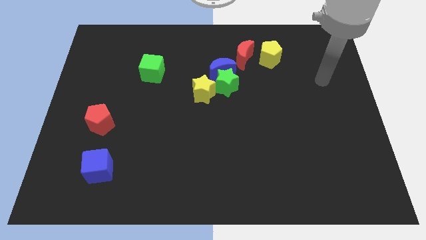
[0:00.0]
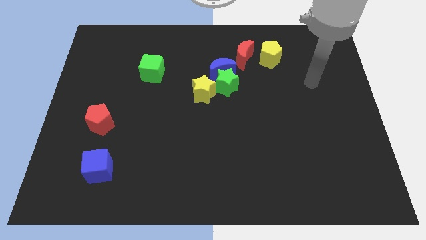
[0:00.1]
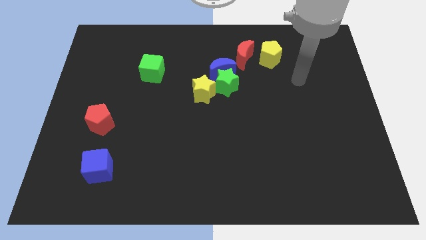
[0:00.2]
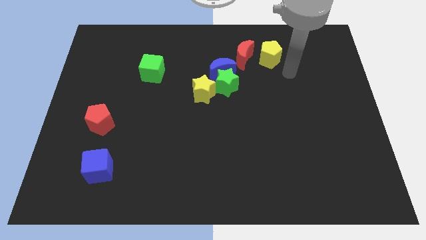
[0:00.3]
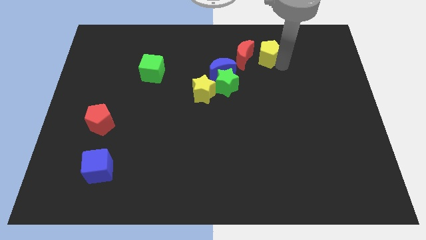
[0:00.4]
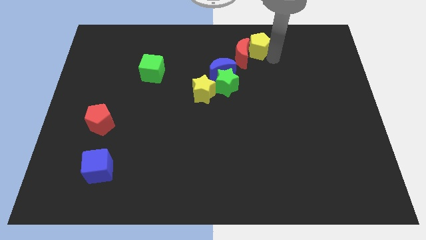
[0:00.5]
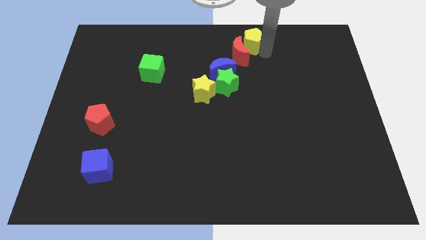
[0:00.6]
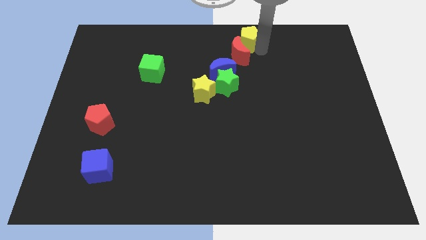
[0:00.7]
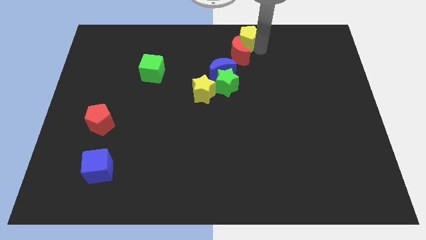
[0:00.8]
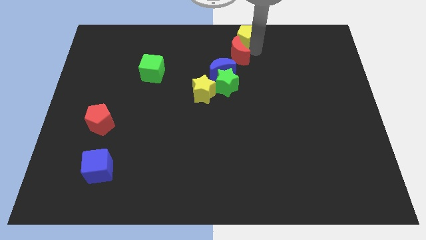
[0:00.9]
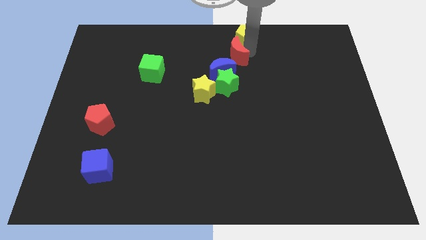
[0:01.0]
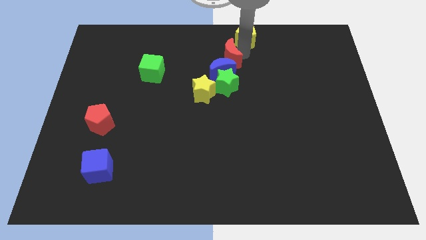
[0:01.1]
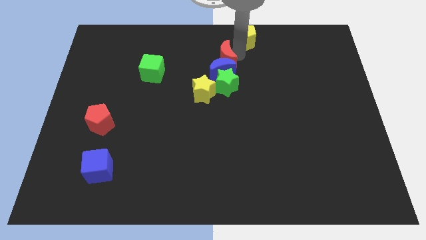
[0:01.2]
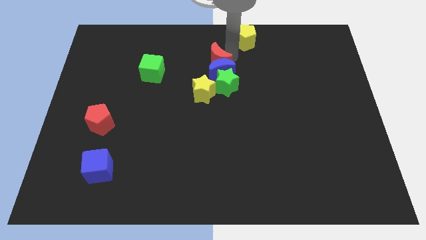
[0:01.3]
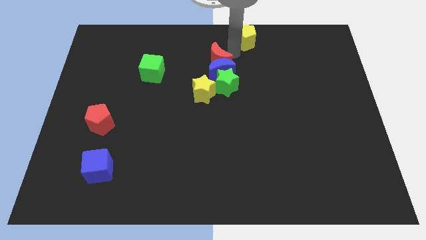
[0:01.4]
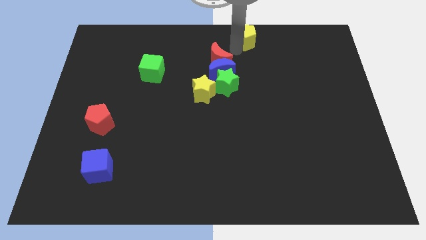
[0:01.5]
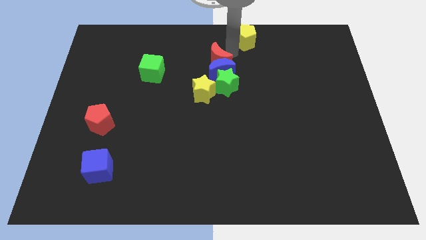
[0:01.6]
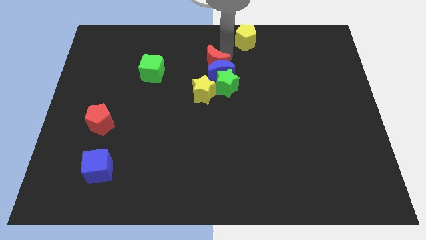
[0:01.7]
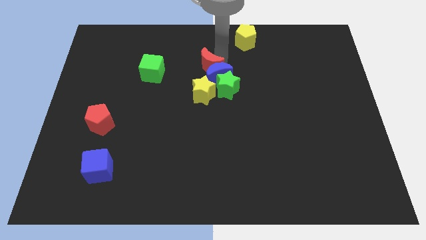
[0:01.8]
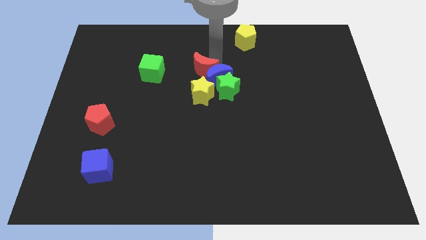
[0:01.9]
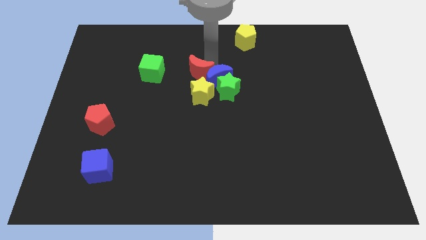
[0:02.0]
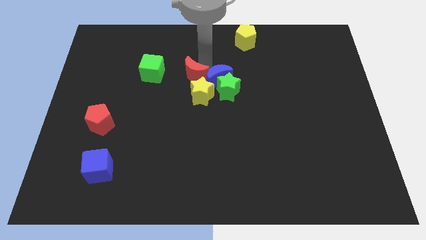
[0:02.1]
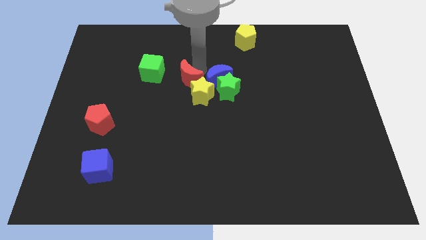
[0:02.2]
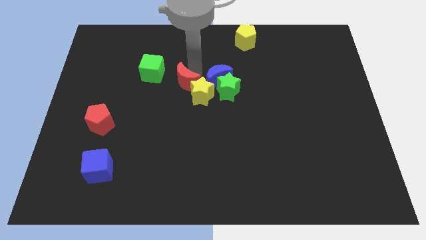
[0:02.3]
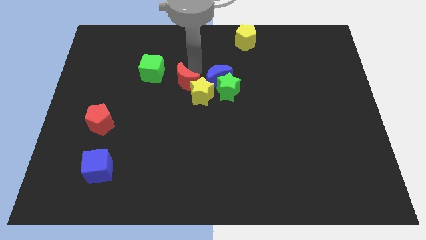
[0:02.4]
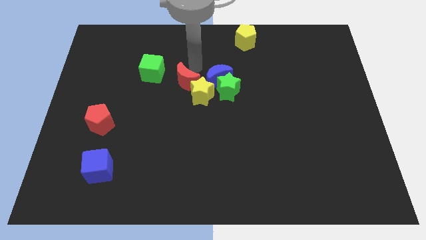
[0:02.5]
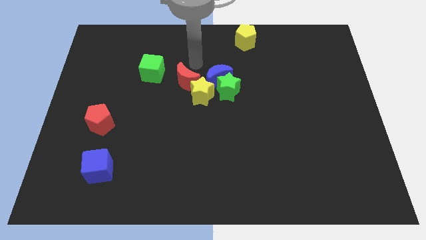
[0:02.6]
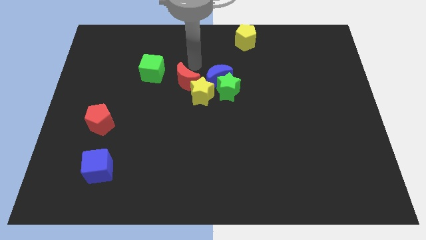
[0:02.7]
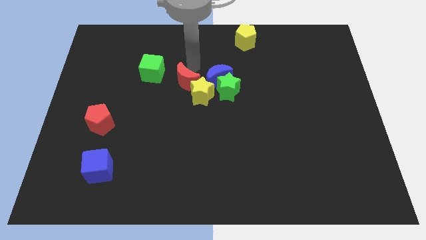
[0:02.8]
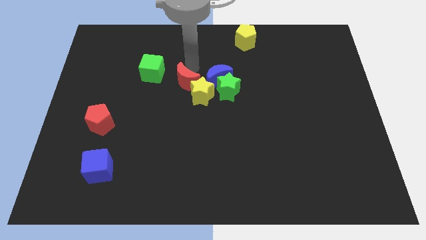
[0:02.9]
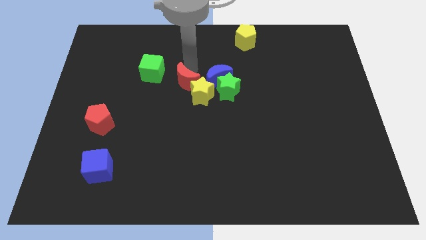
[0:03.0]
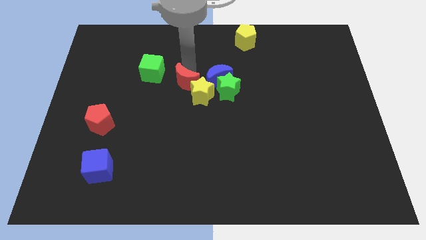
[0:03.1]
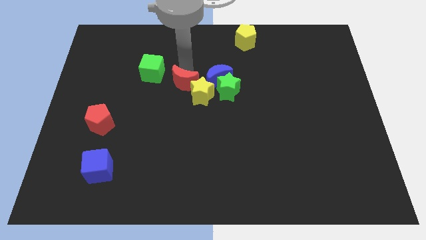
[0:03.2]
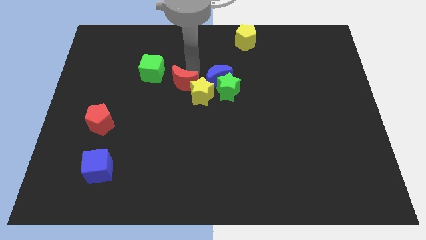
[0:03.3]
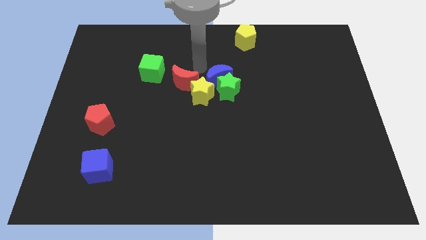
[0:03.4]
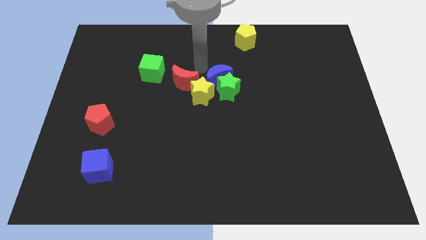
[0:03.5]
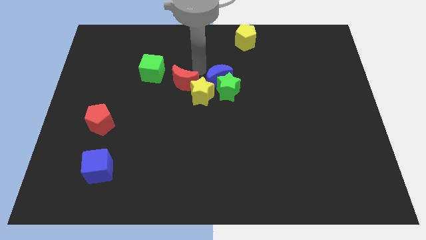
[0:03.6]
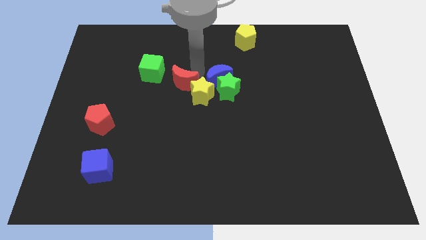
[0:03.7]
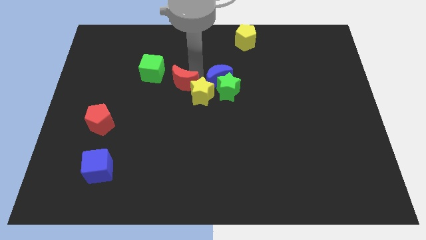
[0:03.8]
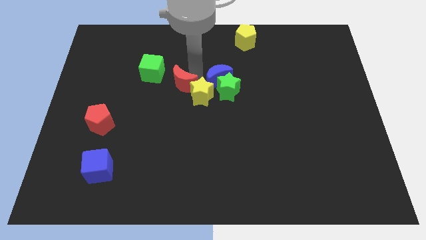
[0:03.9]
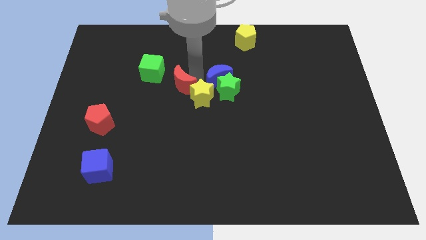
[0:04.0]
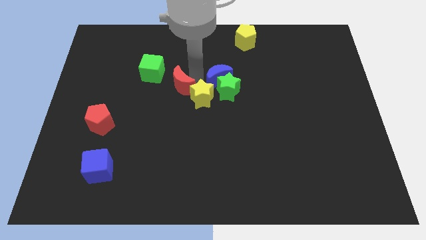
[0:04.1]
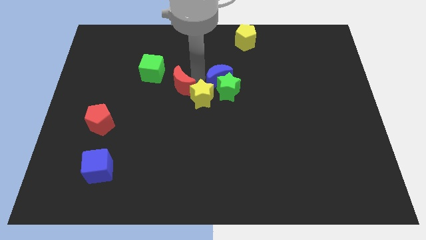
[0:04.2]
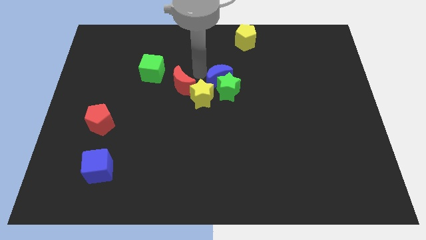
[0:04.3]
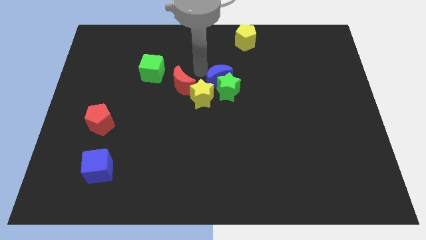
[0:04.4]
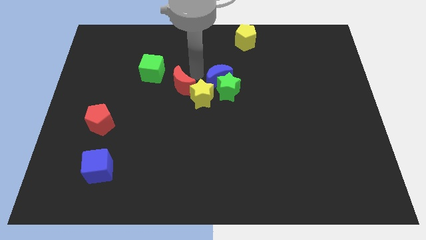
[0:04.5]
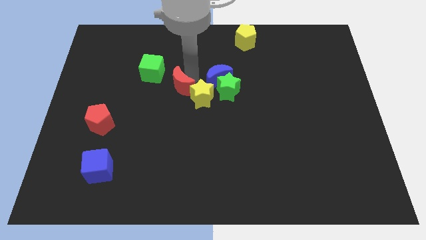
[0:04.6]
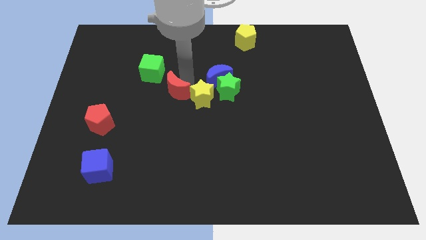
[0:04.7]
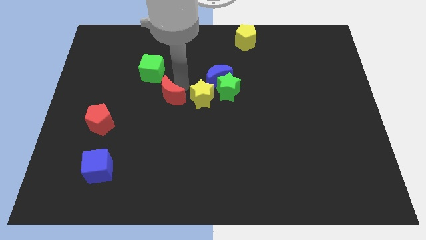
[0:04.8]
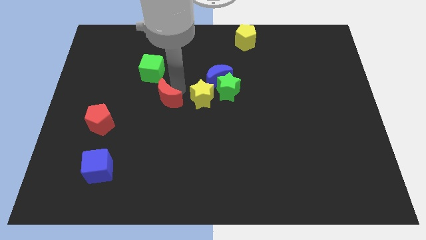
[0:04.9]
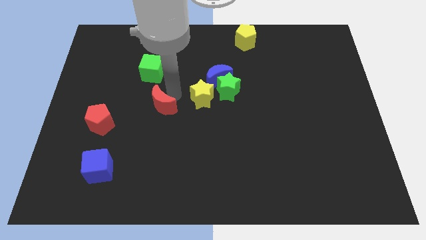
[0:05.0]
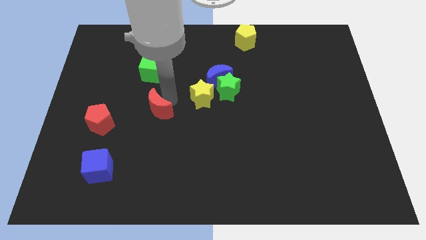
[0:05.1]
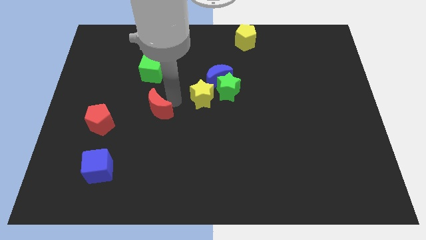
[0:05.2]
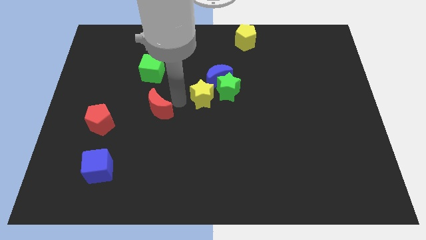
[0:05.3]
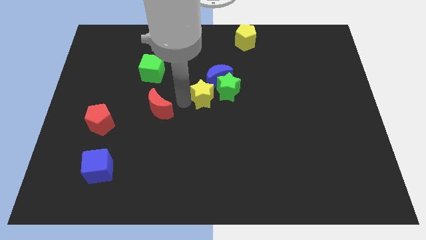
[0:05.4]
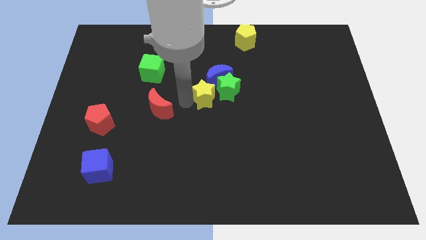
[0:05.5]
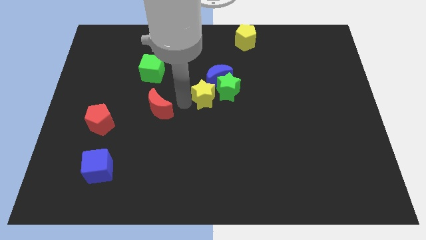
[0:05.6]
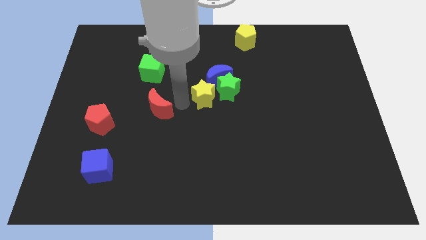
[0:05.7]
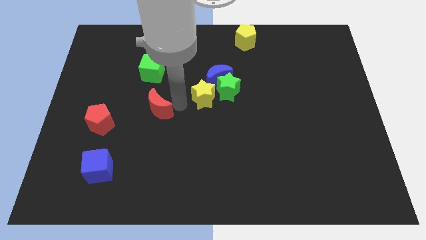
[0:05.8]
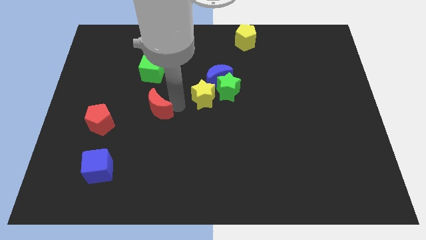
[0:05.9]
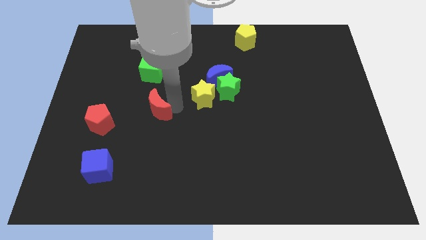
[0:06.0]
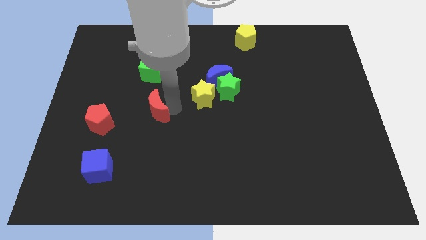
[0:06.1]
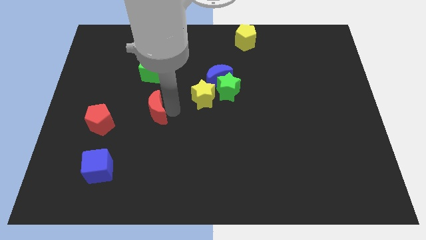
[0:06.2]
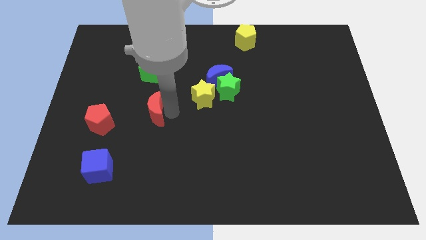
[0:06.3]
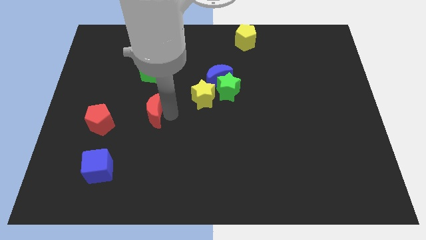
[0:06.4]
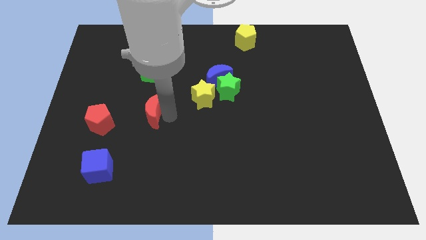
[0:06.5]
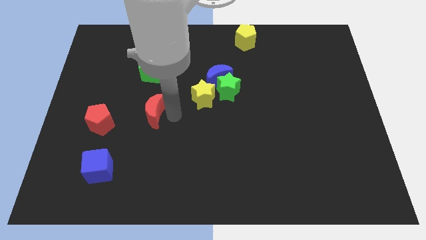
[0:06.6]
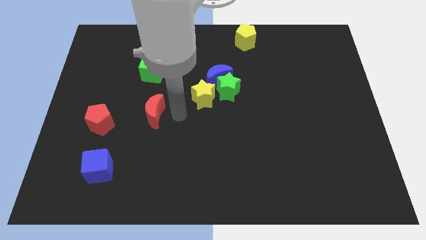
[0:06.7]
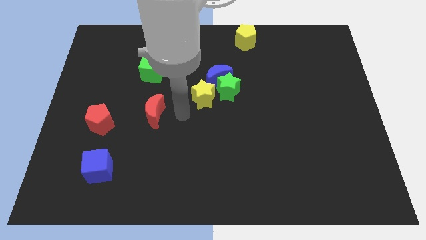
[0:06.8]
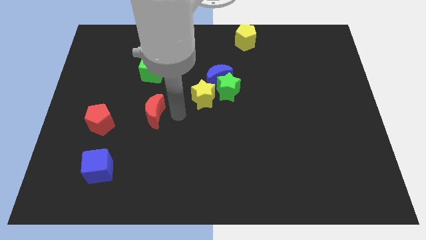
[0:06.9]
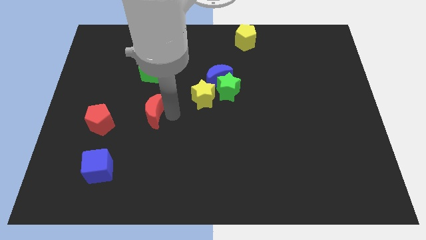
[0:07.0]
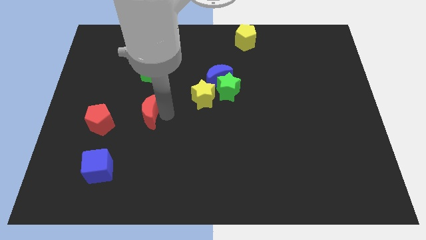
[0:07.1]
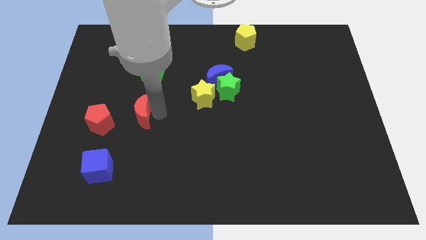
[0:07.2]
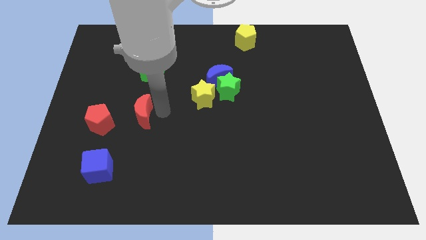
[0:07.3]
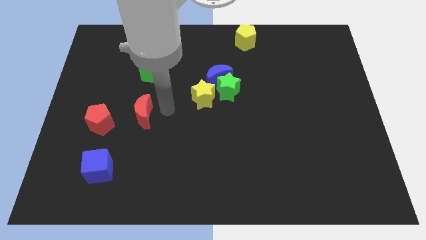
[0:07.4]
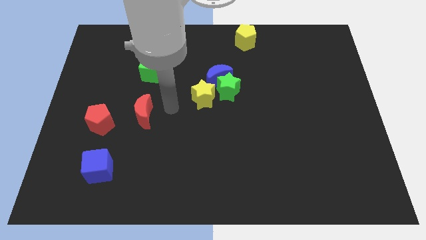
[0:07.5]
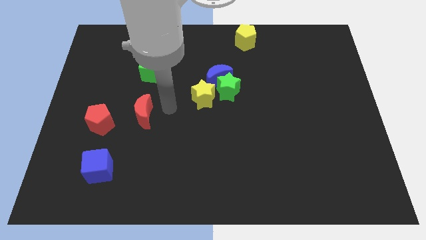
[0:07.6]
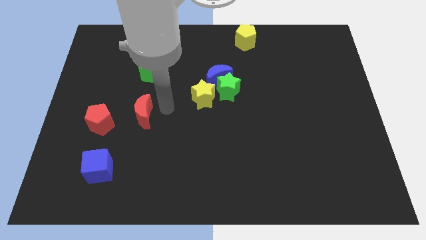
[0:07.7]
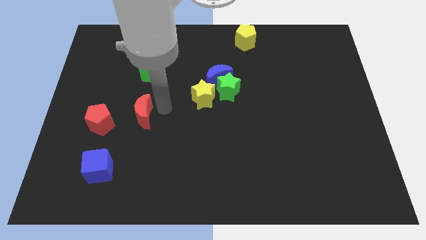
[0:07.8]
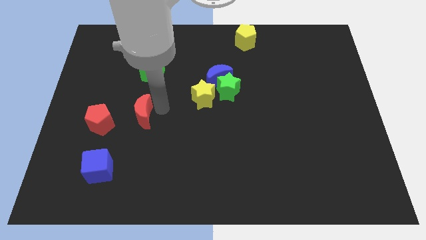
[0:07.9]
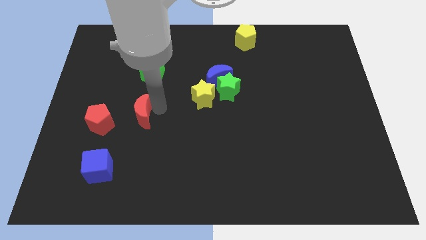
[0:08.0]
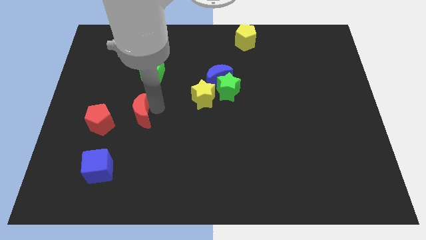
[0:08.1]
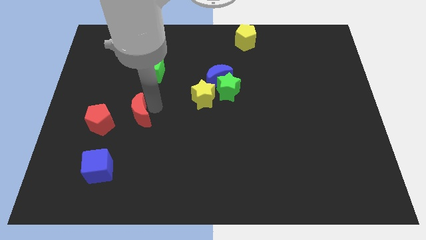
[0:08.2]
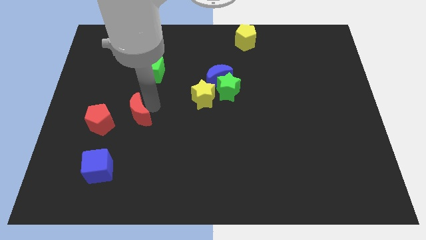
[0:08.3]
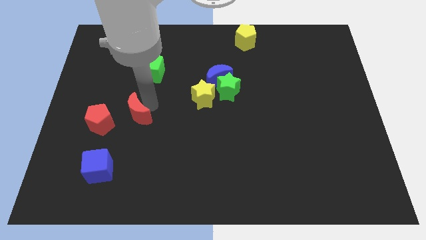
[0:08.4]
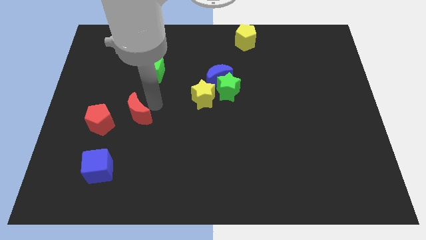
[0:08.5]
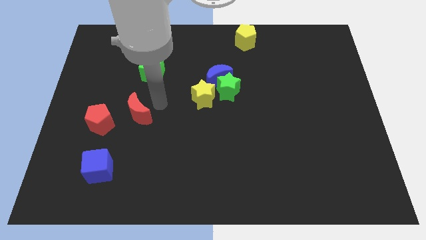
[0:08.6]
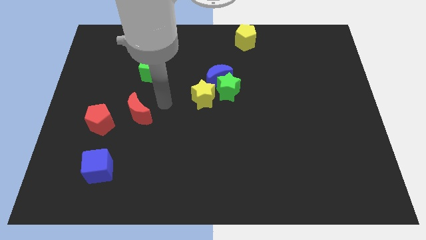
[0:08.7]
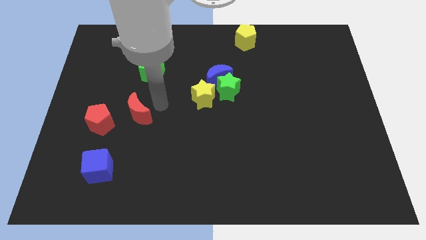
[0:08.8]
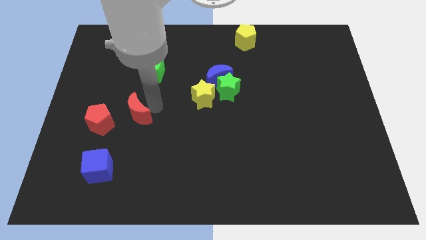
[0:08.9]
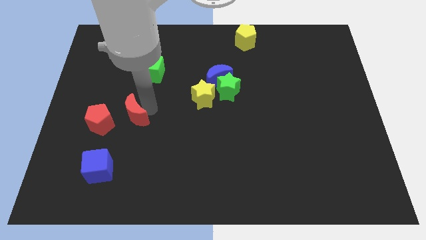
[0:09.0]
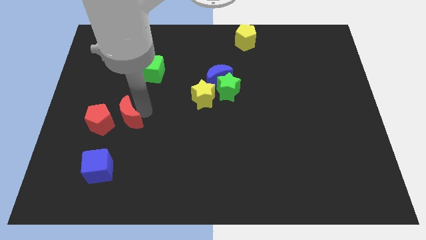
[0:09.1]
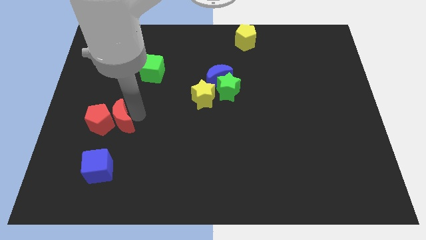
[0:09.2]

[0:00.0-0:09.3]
slide the red moon close to the red pentagon
